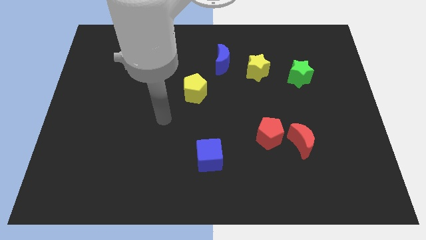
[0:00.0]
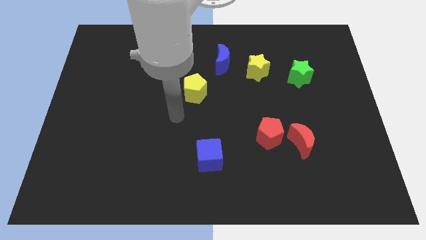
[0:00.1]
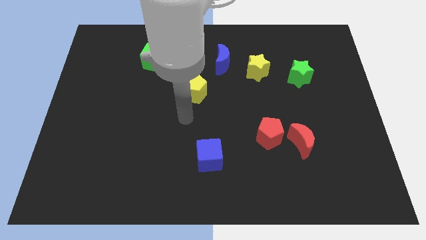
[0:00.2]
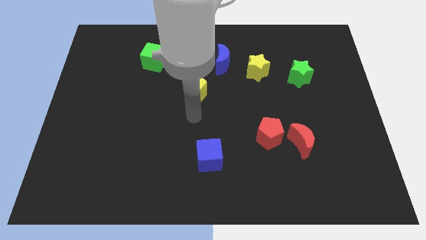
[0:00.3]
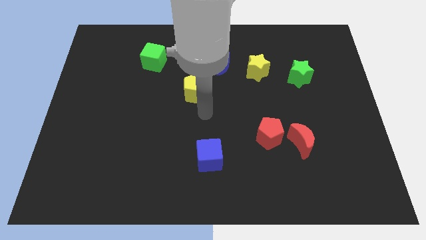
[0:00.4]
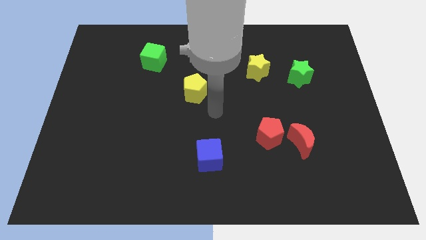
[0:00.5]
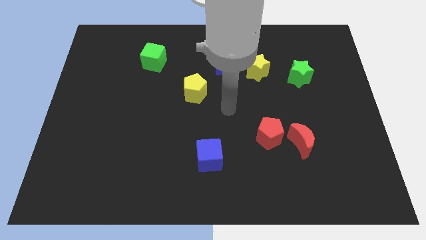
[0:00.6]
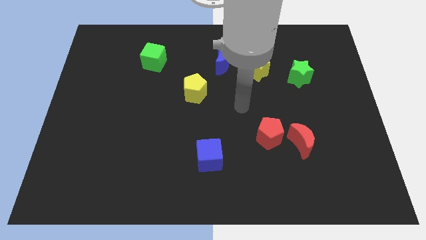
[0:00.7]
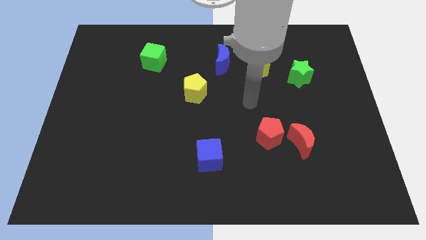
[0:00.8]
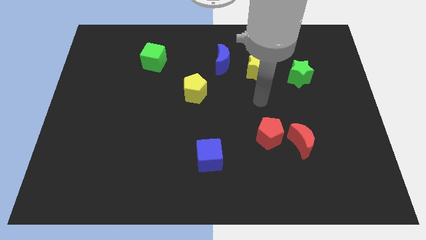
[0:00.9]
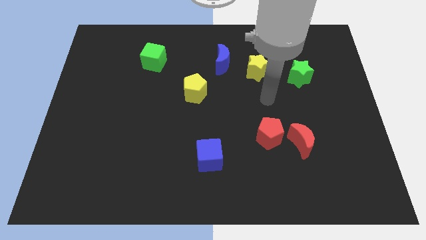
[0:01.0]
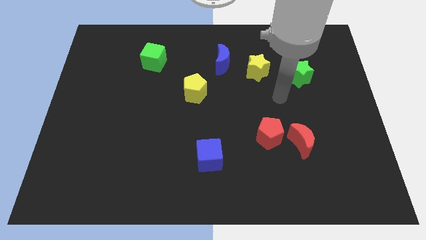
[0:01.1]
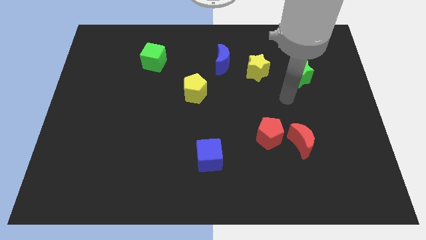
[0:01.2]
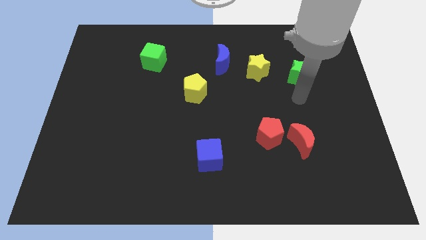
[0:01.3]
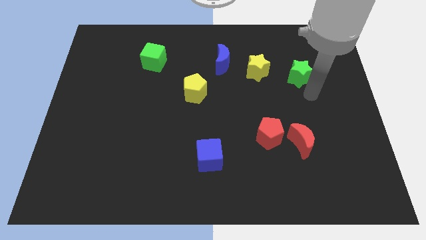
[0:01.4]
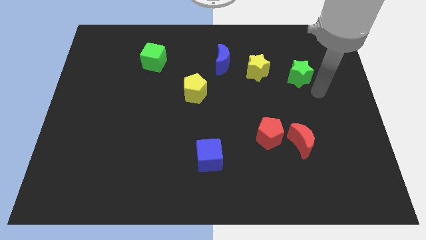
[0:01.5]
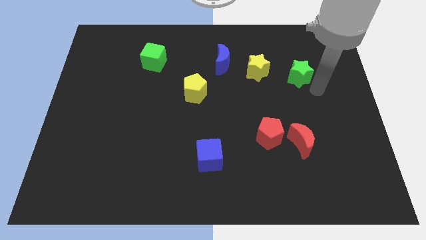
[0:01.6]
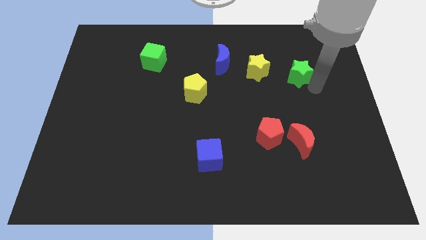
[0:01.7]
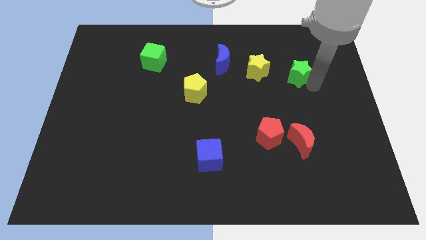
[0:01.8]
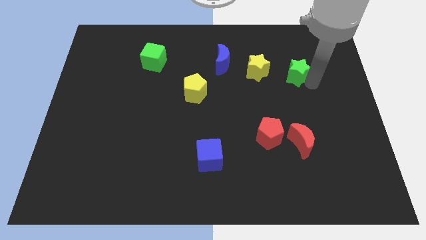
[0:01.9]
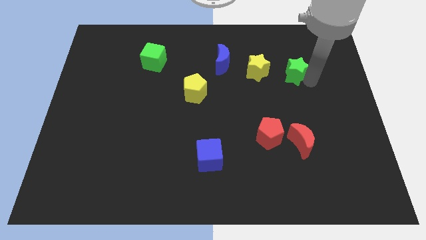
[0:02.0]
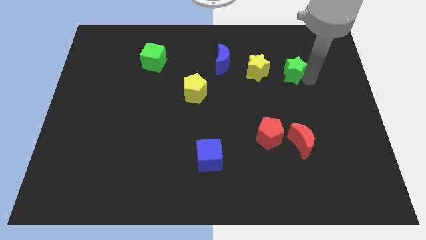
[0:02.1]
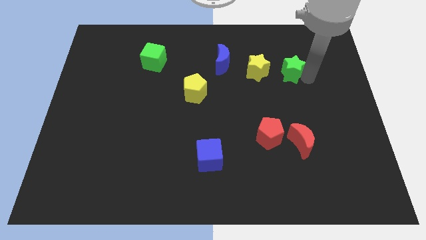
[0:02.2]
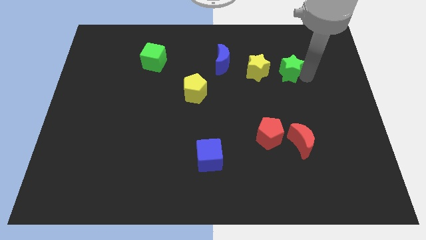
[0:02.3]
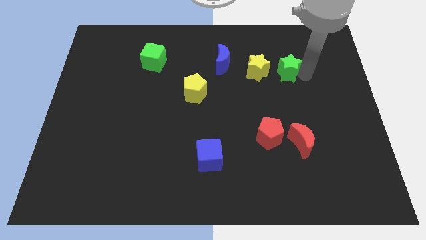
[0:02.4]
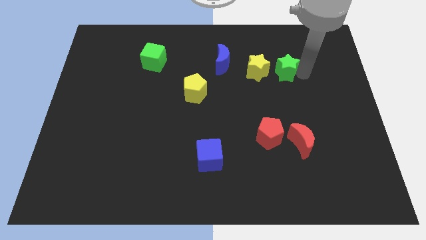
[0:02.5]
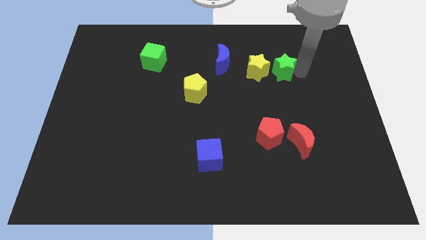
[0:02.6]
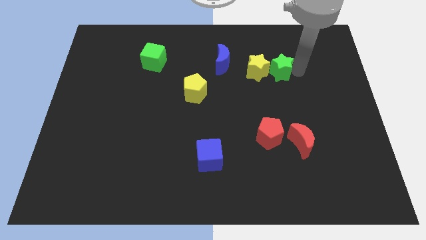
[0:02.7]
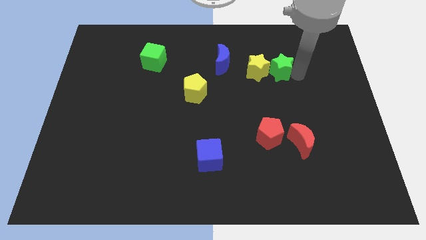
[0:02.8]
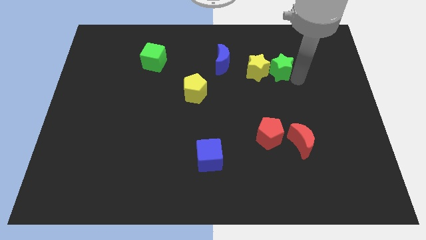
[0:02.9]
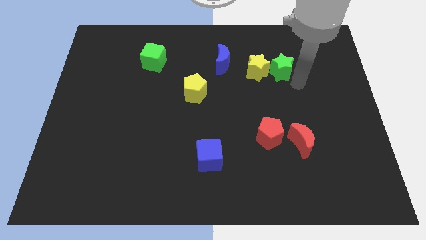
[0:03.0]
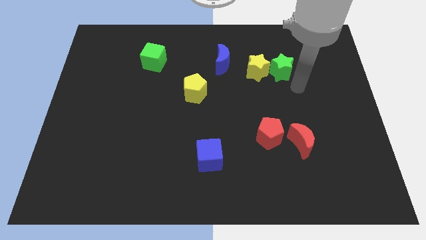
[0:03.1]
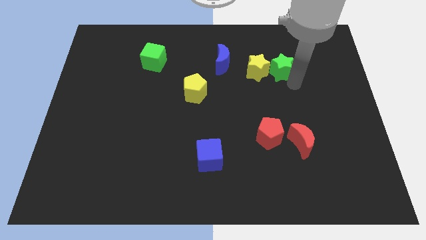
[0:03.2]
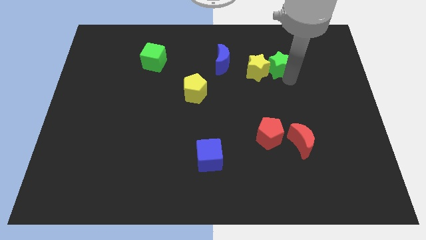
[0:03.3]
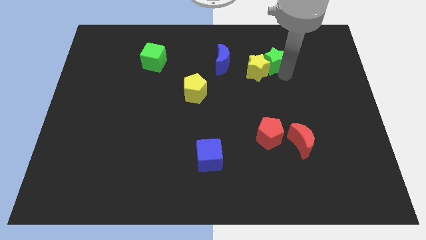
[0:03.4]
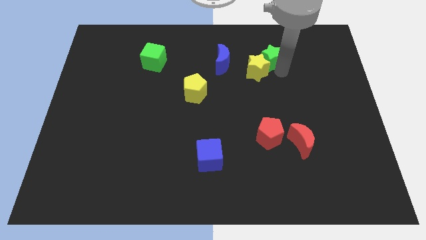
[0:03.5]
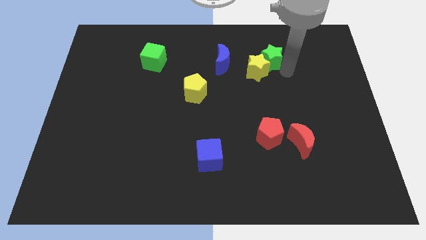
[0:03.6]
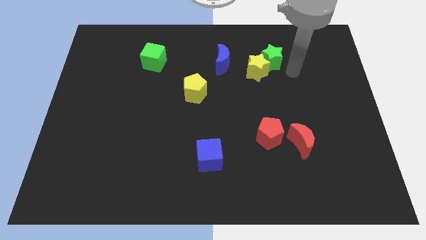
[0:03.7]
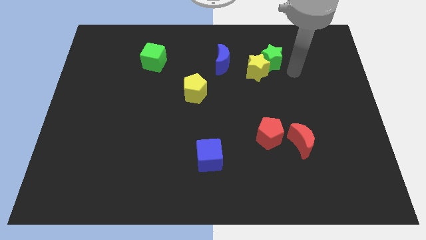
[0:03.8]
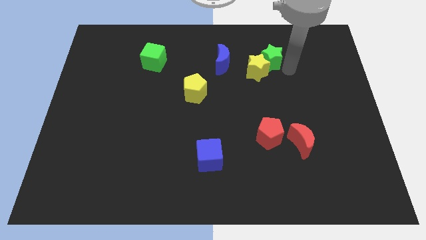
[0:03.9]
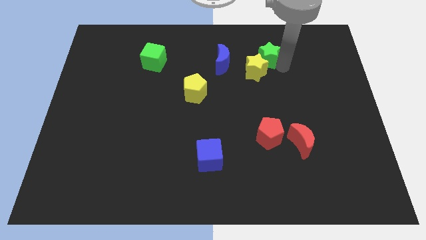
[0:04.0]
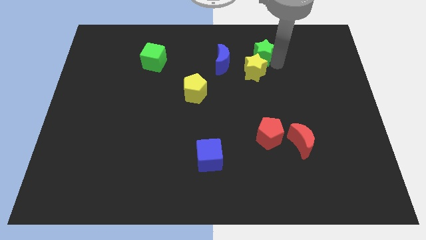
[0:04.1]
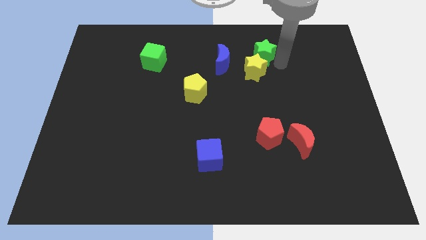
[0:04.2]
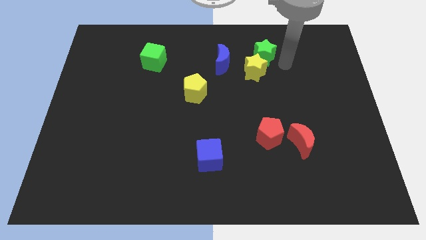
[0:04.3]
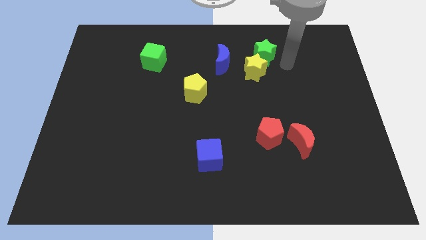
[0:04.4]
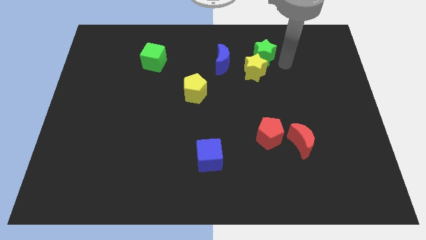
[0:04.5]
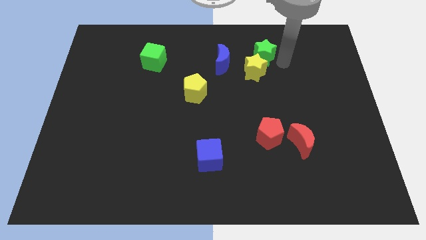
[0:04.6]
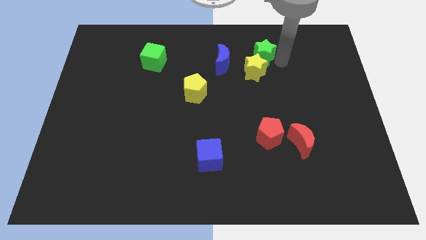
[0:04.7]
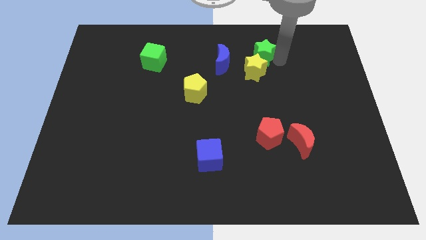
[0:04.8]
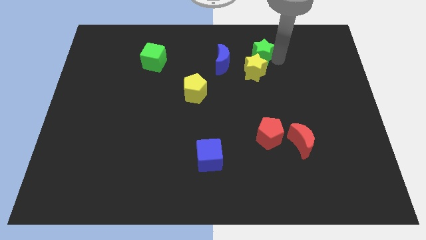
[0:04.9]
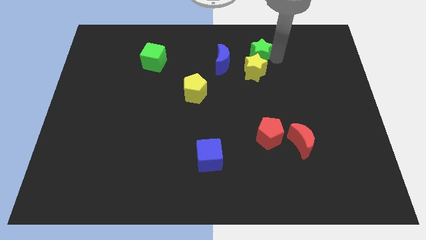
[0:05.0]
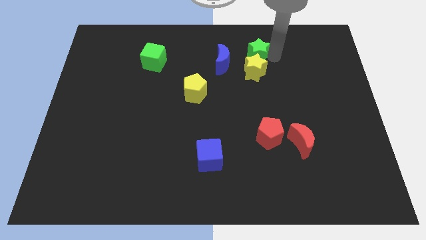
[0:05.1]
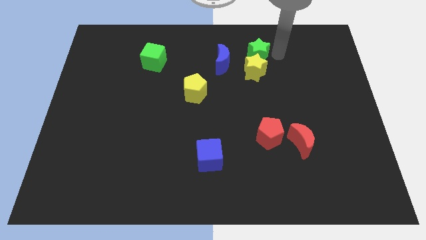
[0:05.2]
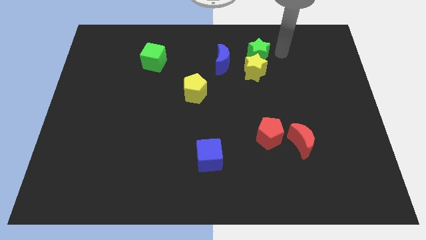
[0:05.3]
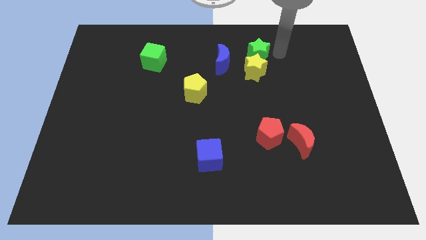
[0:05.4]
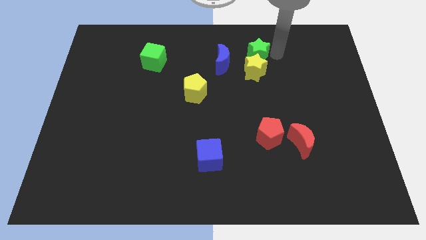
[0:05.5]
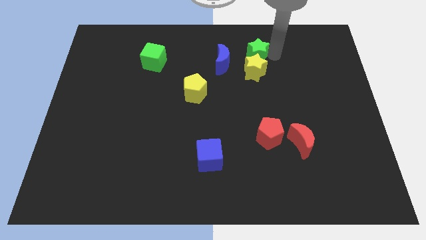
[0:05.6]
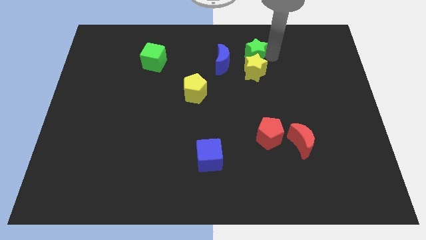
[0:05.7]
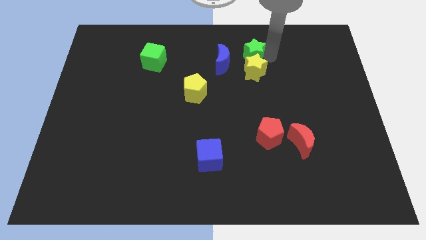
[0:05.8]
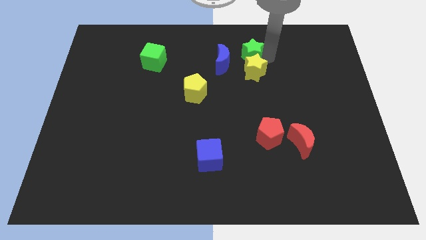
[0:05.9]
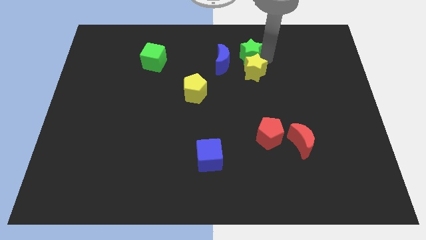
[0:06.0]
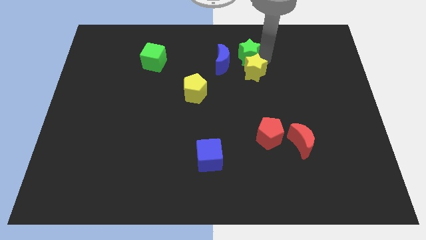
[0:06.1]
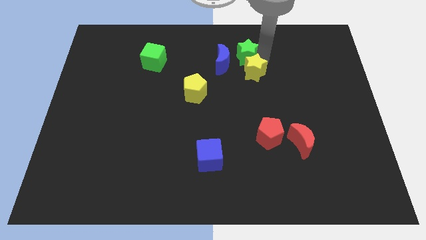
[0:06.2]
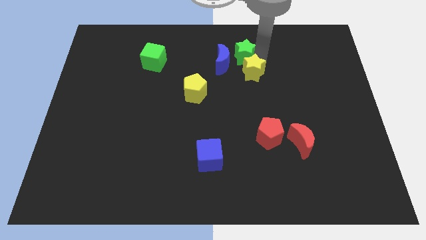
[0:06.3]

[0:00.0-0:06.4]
move the green star to the blue moon
